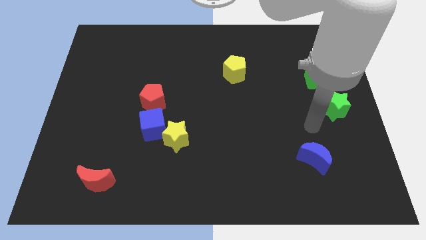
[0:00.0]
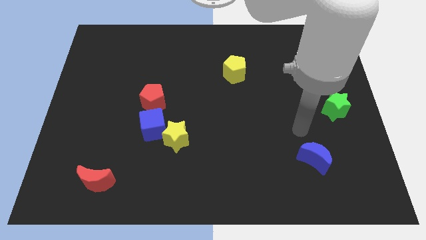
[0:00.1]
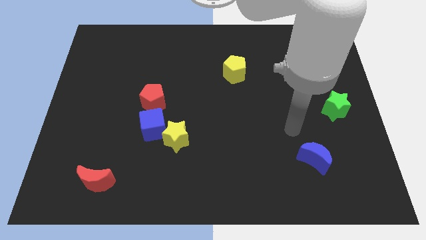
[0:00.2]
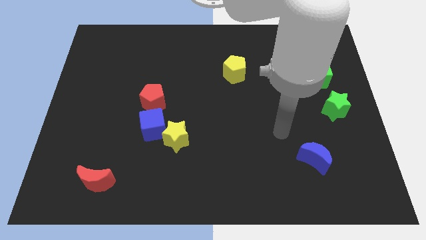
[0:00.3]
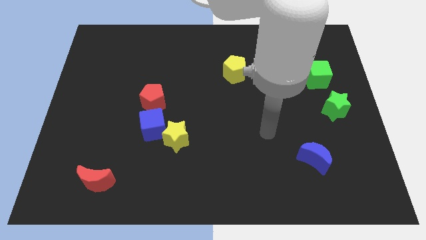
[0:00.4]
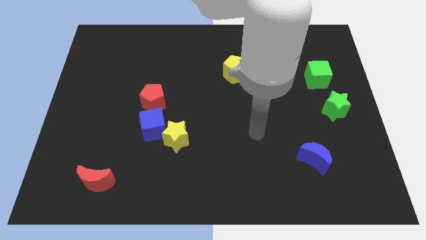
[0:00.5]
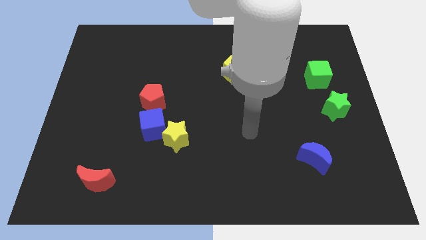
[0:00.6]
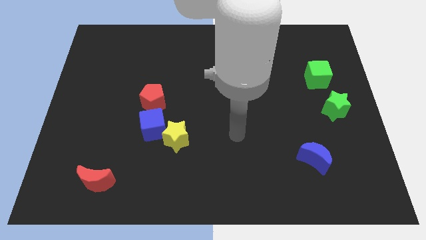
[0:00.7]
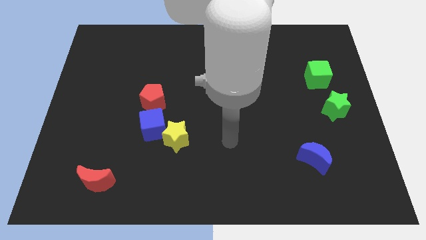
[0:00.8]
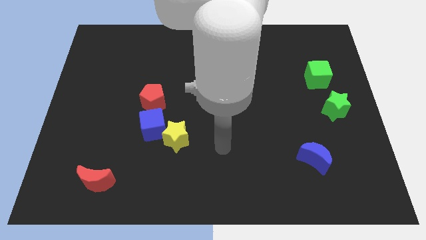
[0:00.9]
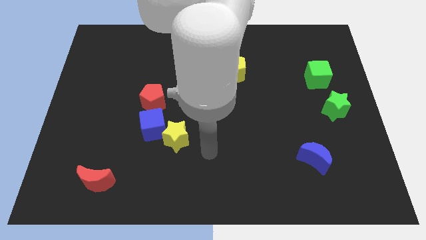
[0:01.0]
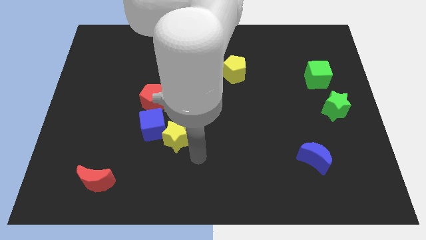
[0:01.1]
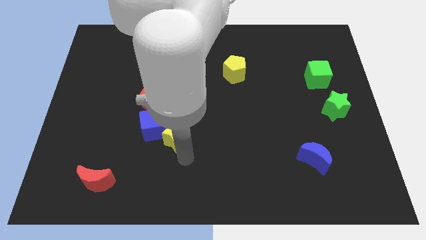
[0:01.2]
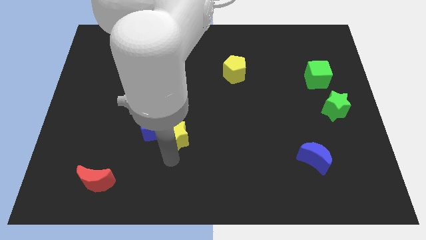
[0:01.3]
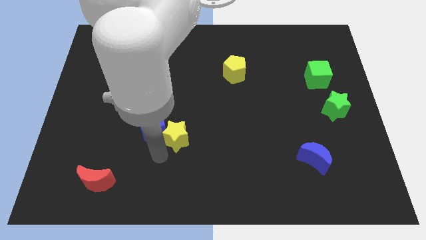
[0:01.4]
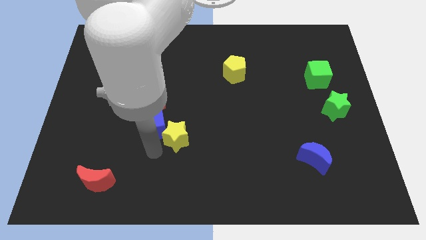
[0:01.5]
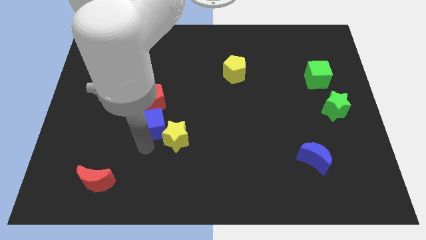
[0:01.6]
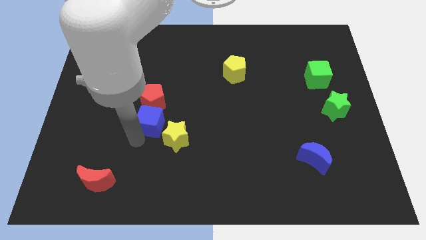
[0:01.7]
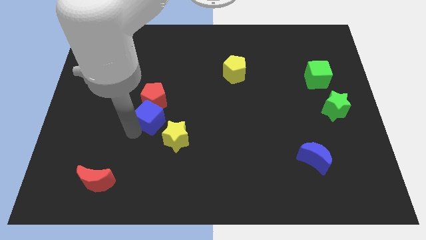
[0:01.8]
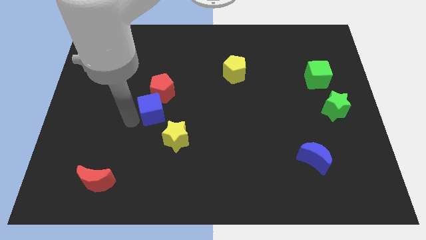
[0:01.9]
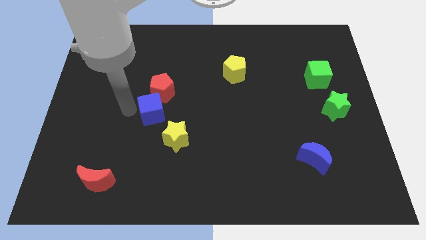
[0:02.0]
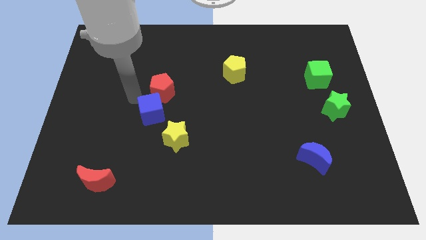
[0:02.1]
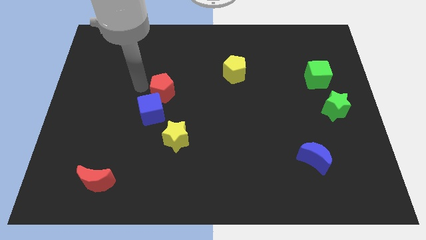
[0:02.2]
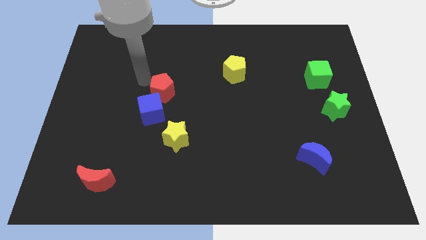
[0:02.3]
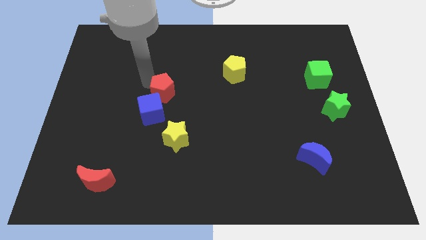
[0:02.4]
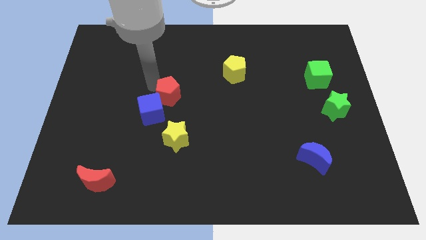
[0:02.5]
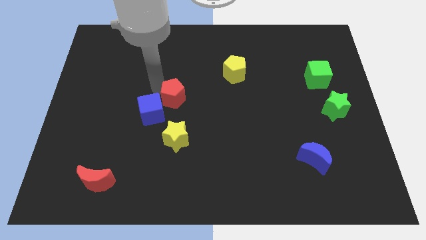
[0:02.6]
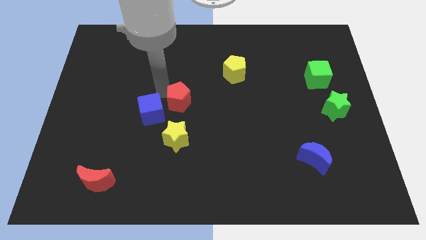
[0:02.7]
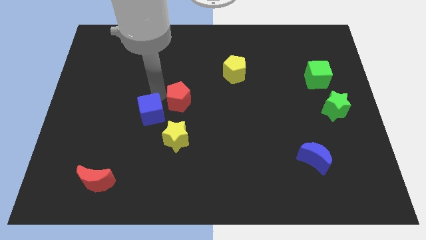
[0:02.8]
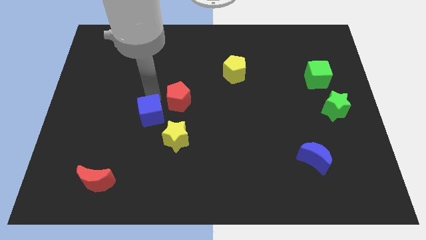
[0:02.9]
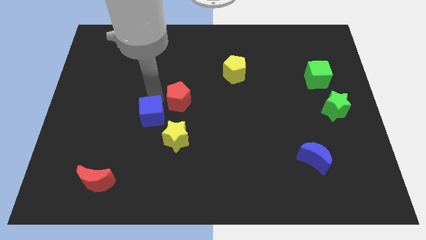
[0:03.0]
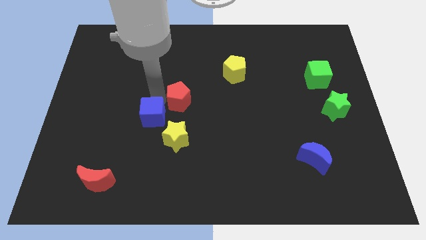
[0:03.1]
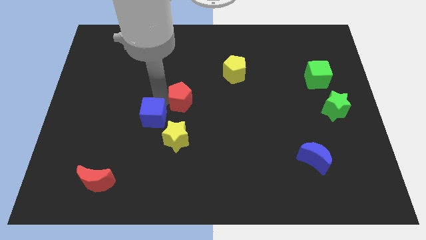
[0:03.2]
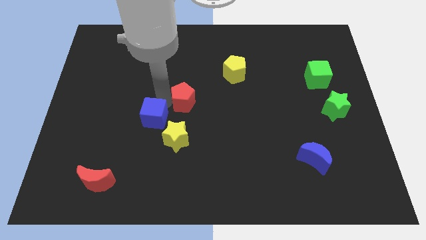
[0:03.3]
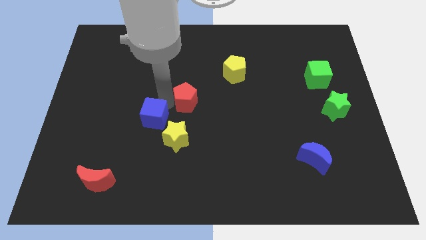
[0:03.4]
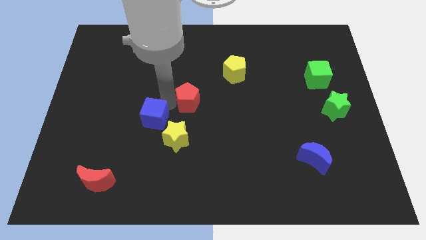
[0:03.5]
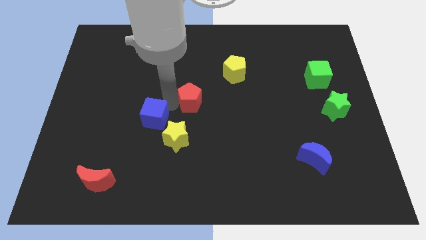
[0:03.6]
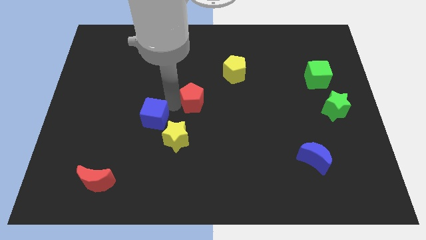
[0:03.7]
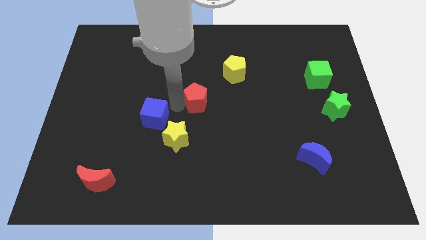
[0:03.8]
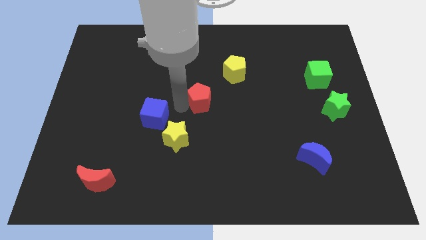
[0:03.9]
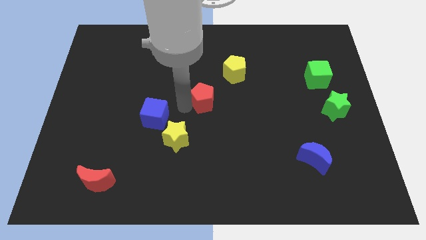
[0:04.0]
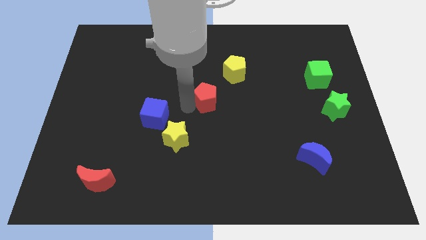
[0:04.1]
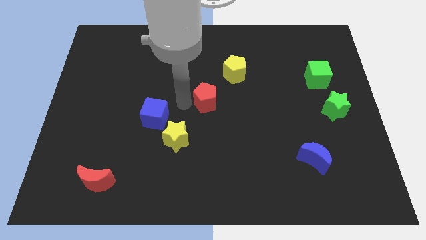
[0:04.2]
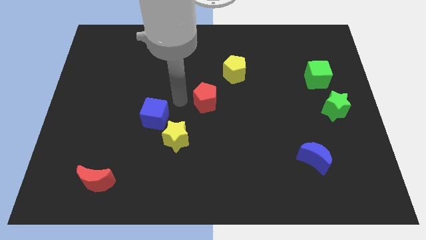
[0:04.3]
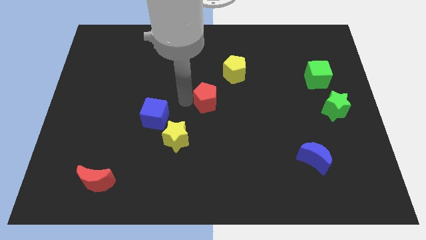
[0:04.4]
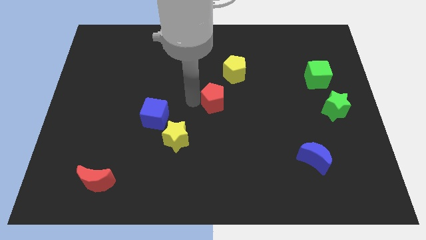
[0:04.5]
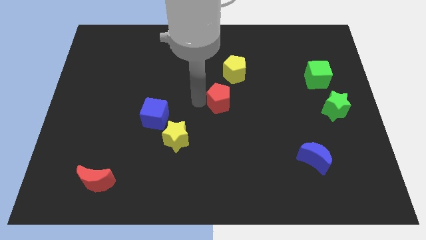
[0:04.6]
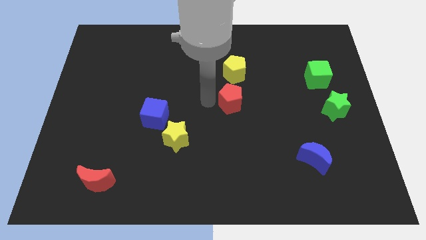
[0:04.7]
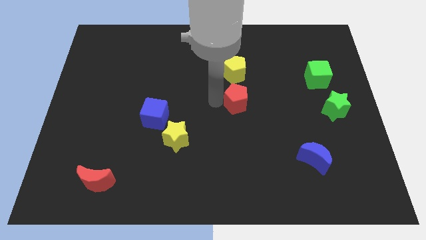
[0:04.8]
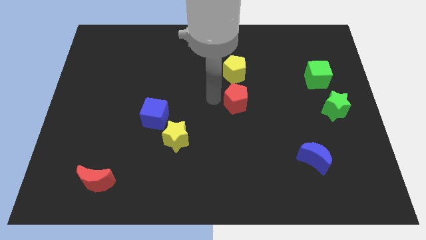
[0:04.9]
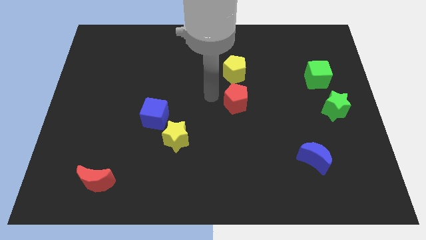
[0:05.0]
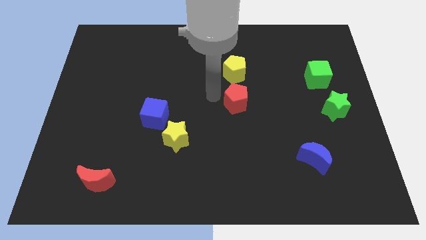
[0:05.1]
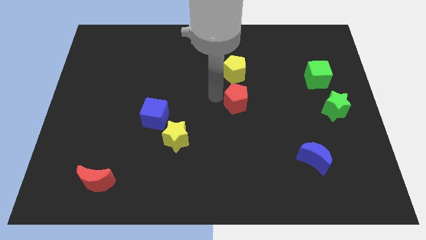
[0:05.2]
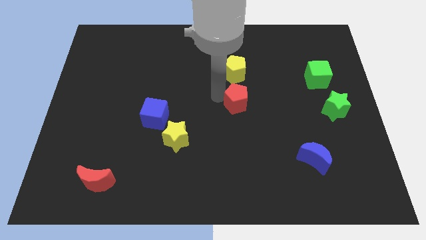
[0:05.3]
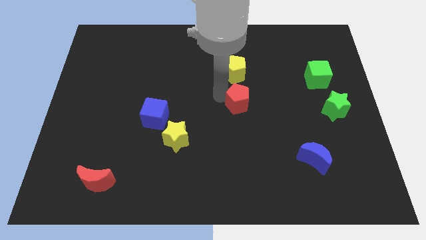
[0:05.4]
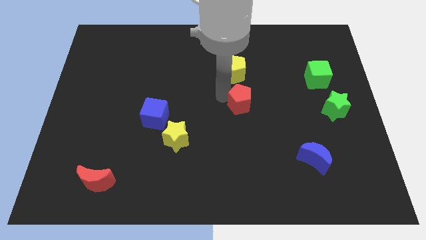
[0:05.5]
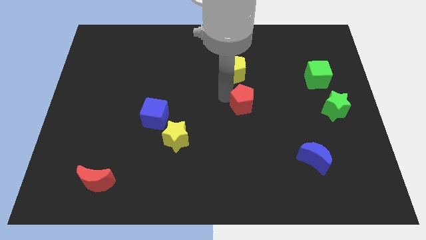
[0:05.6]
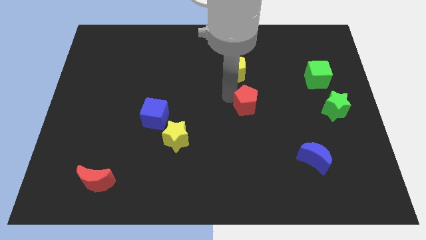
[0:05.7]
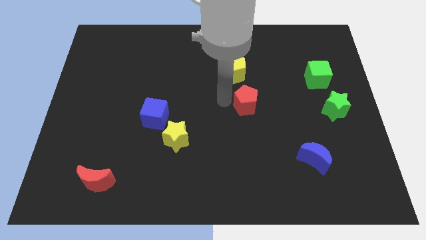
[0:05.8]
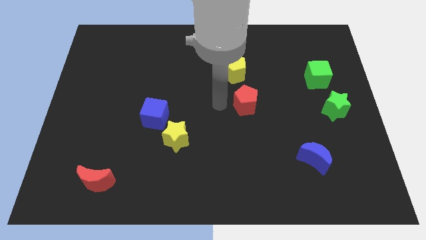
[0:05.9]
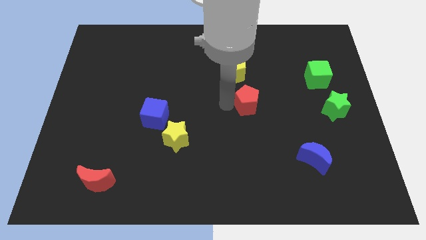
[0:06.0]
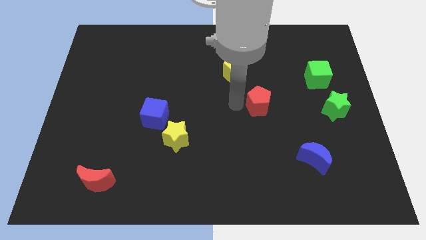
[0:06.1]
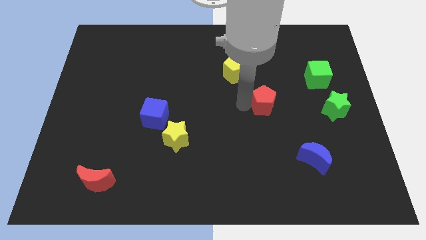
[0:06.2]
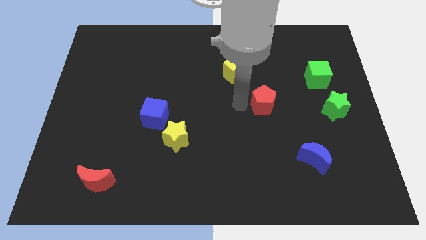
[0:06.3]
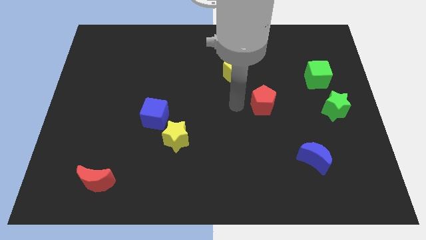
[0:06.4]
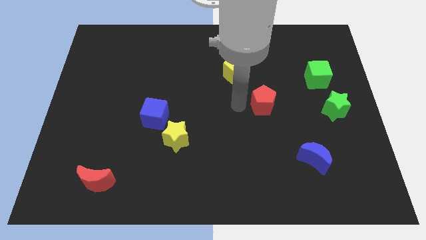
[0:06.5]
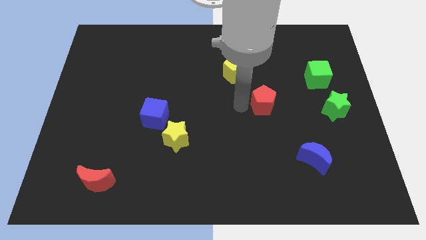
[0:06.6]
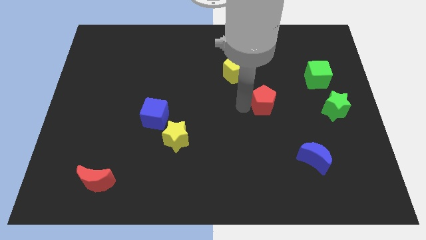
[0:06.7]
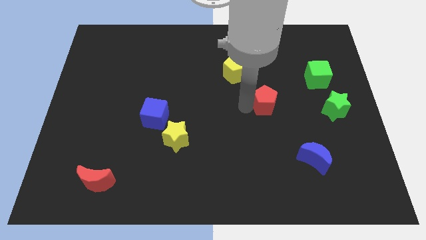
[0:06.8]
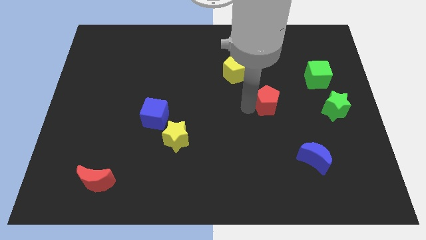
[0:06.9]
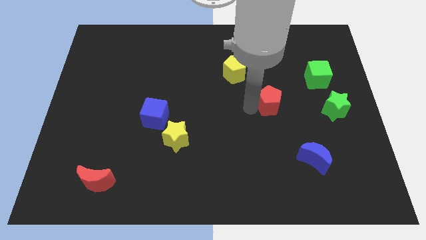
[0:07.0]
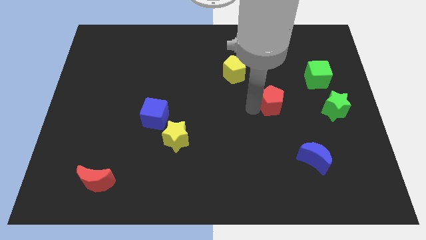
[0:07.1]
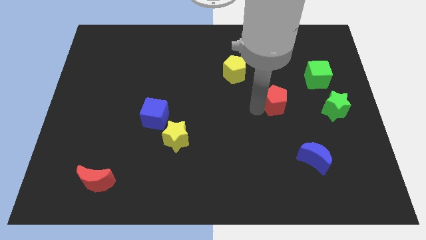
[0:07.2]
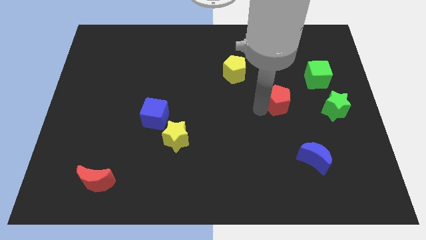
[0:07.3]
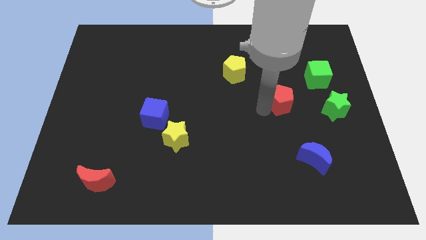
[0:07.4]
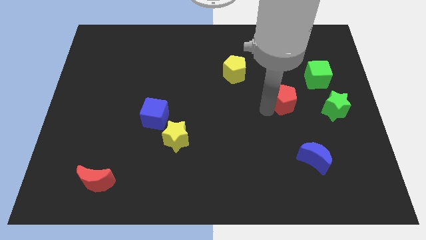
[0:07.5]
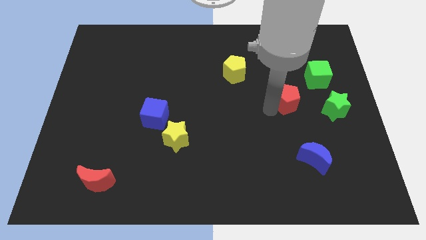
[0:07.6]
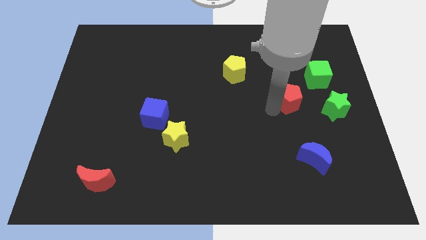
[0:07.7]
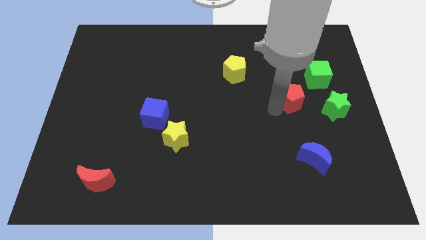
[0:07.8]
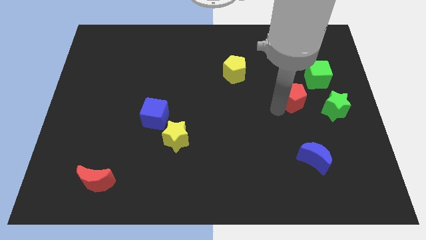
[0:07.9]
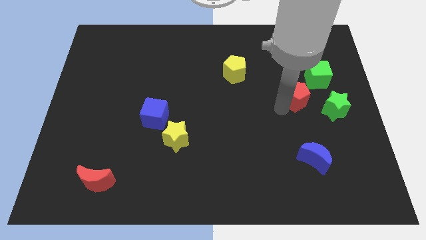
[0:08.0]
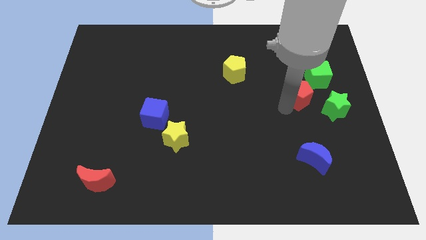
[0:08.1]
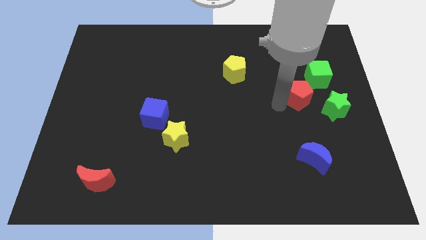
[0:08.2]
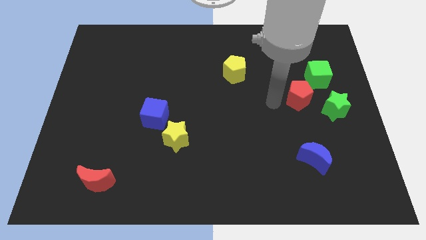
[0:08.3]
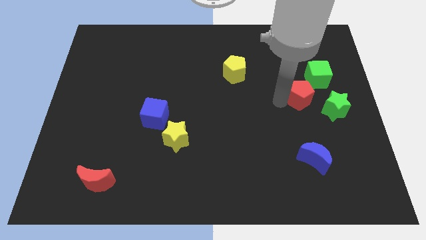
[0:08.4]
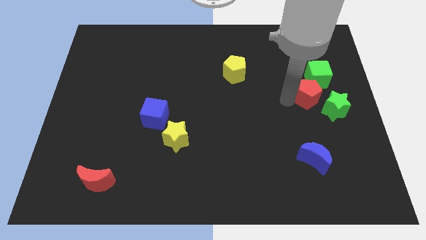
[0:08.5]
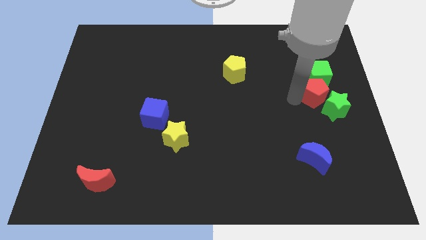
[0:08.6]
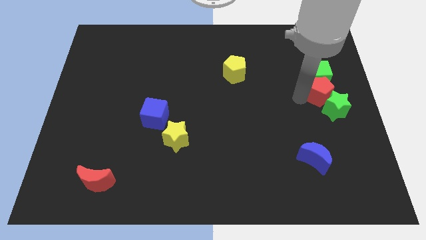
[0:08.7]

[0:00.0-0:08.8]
move the red pentagon to the center right
